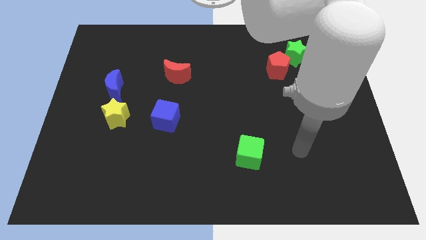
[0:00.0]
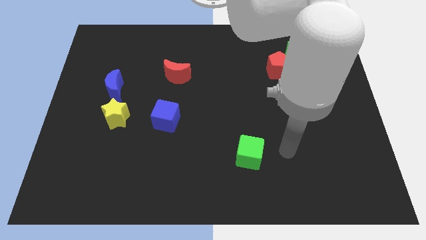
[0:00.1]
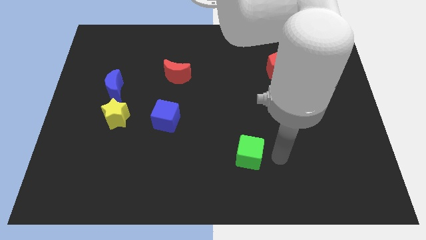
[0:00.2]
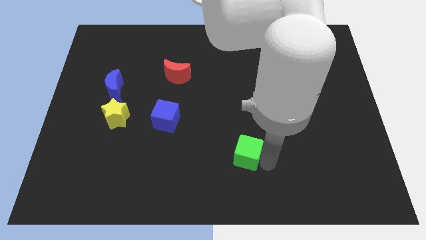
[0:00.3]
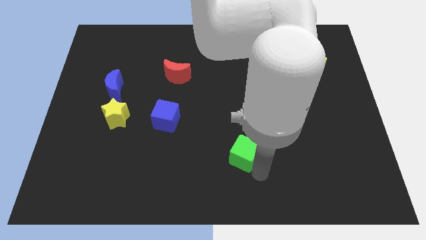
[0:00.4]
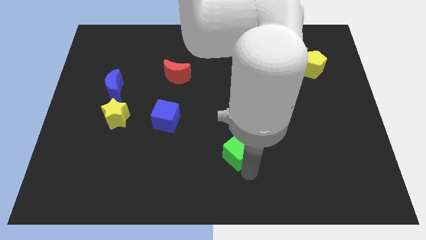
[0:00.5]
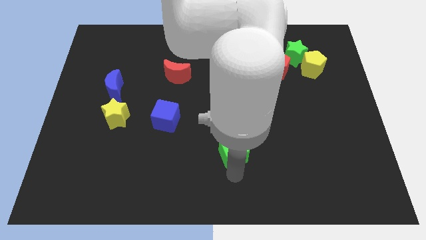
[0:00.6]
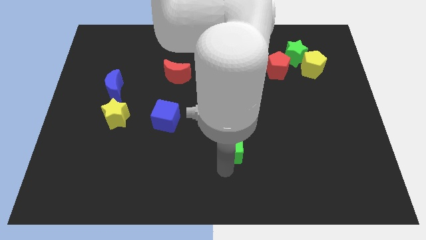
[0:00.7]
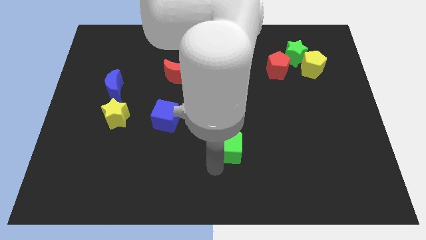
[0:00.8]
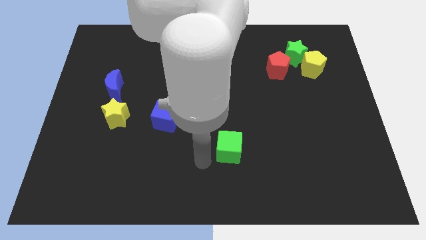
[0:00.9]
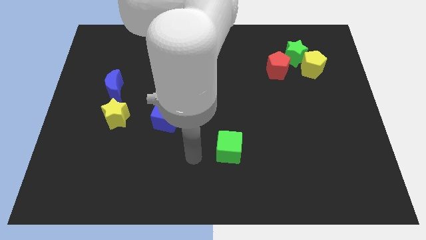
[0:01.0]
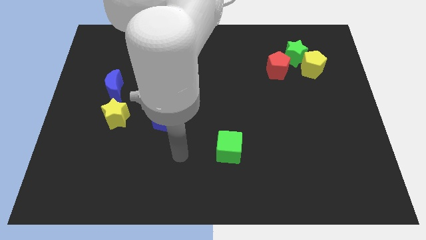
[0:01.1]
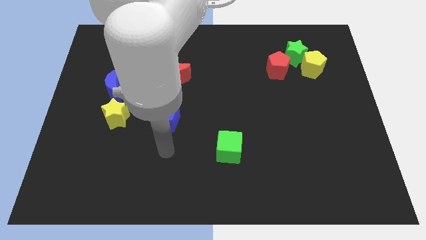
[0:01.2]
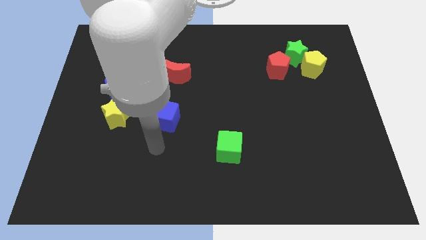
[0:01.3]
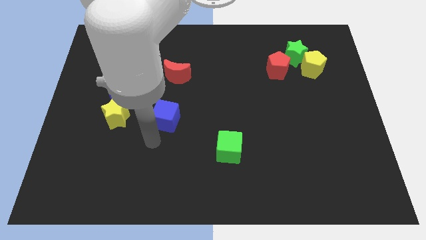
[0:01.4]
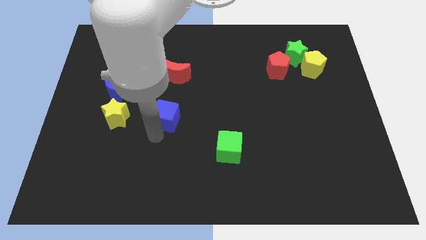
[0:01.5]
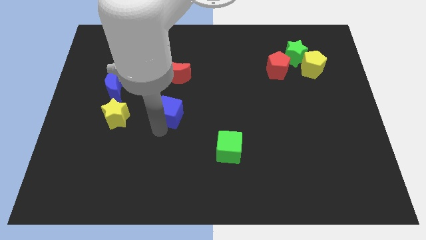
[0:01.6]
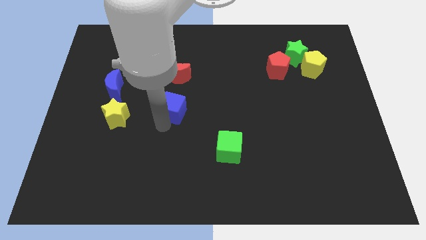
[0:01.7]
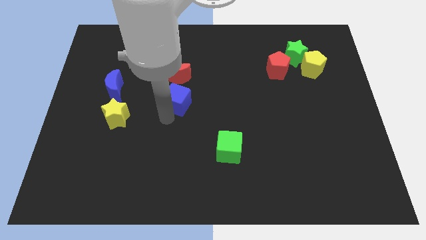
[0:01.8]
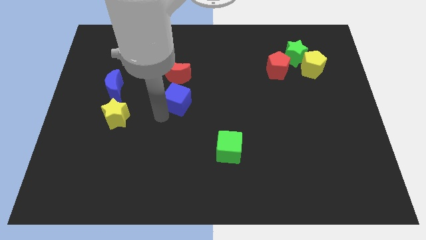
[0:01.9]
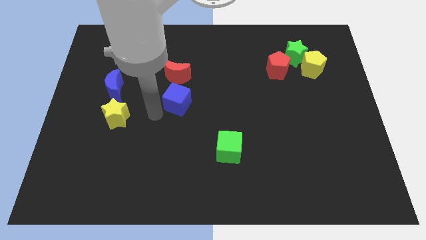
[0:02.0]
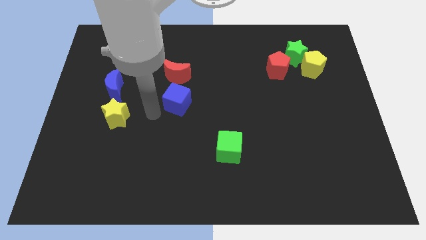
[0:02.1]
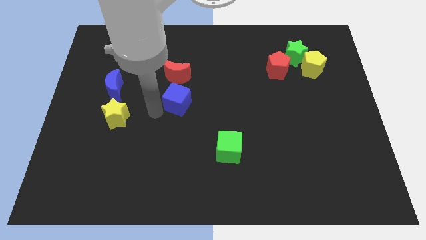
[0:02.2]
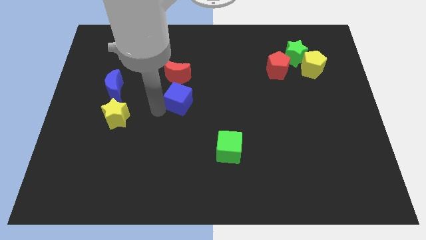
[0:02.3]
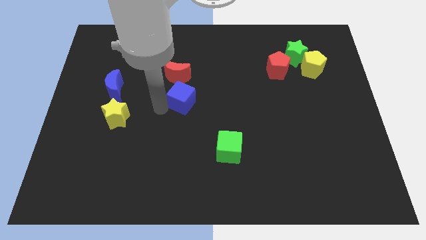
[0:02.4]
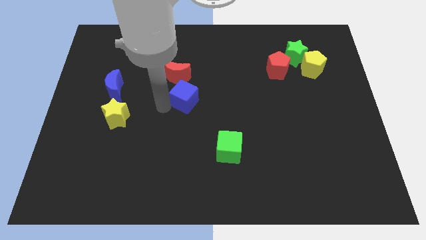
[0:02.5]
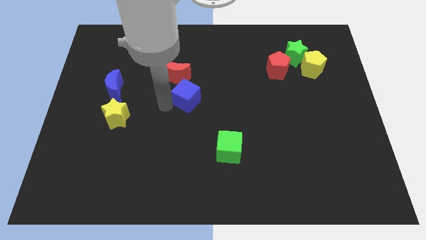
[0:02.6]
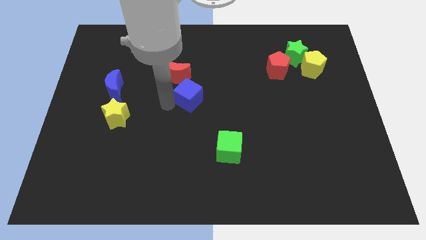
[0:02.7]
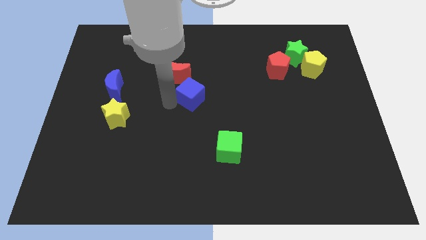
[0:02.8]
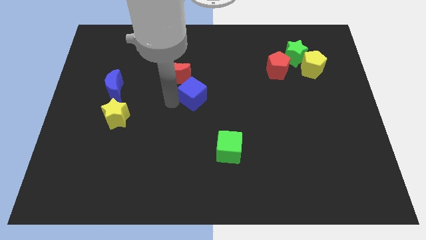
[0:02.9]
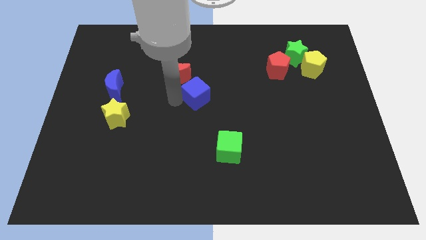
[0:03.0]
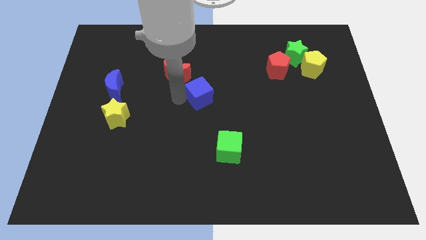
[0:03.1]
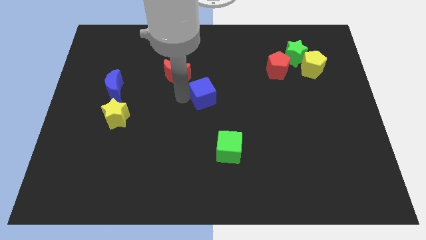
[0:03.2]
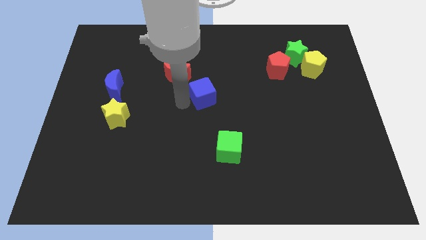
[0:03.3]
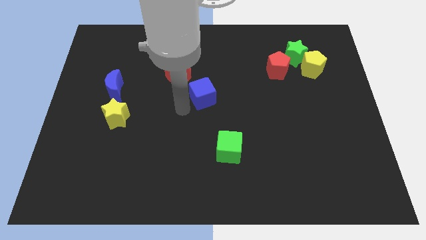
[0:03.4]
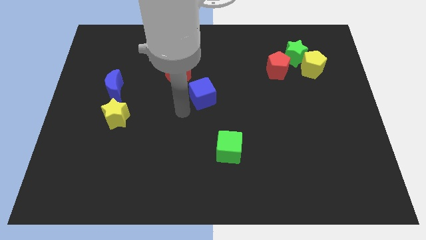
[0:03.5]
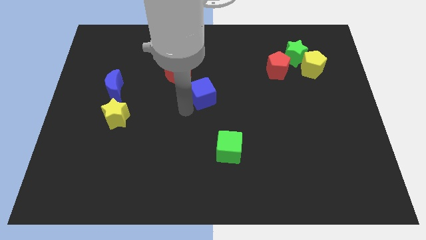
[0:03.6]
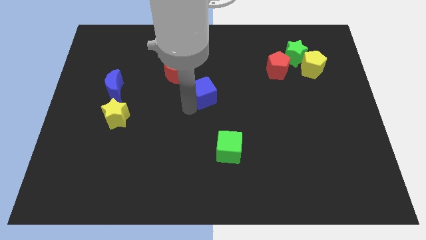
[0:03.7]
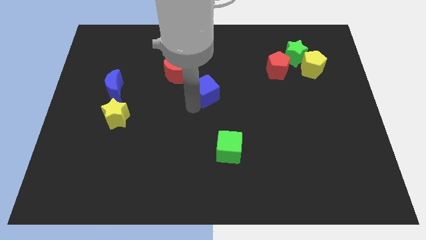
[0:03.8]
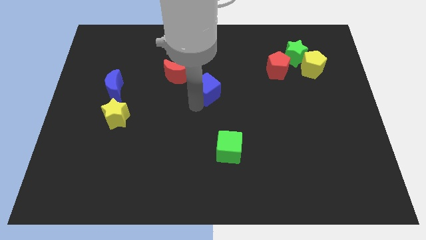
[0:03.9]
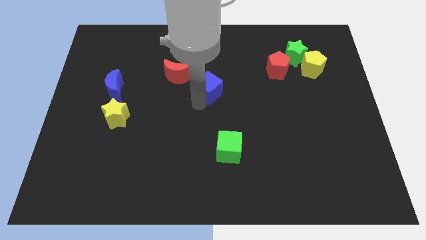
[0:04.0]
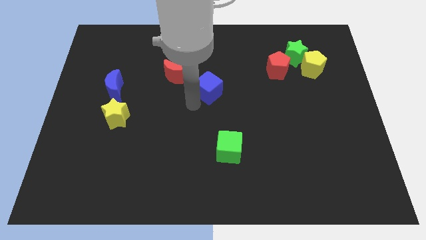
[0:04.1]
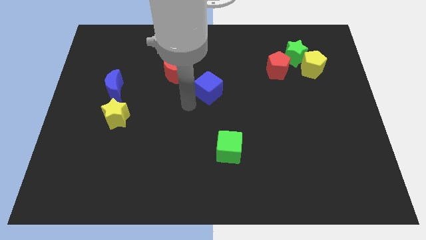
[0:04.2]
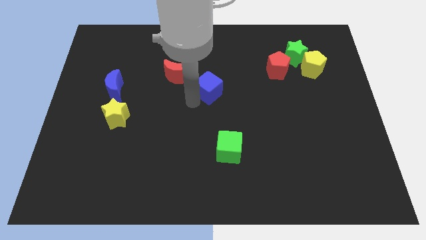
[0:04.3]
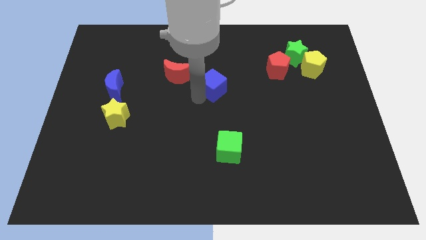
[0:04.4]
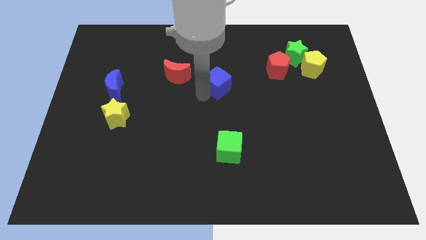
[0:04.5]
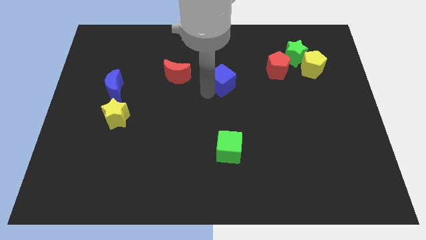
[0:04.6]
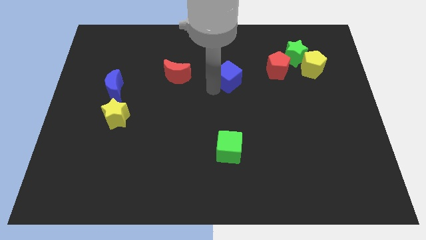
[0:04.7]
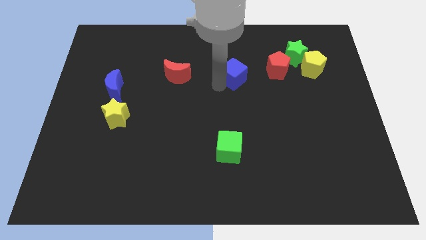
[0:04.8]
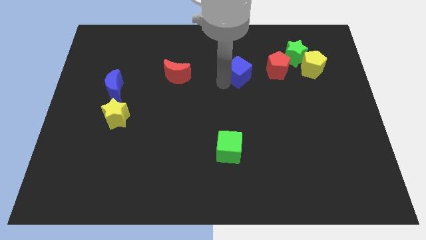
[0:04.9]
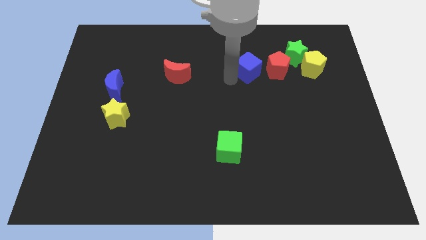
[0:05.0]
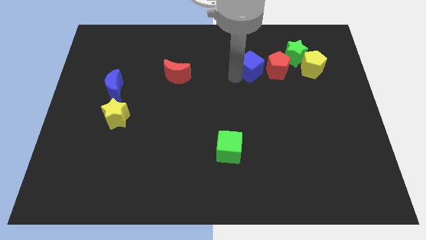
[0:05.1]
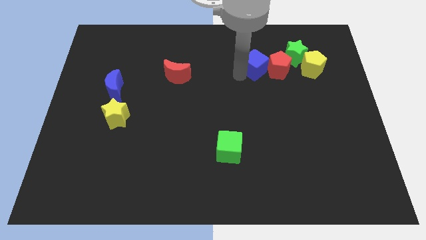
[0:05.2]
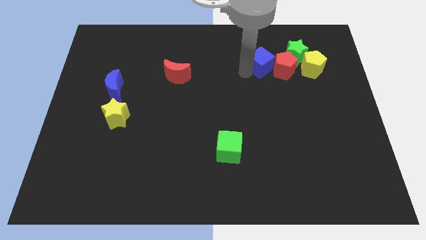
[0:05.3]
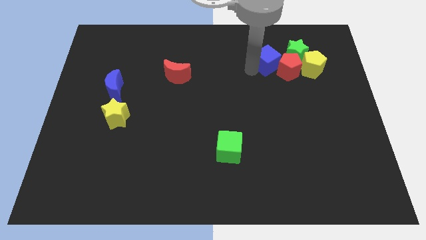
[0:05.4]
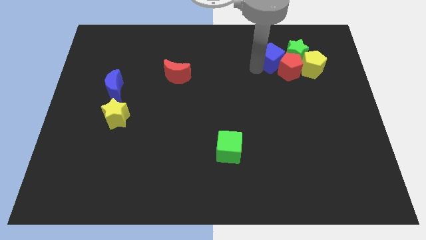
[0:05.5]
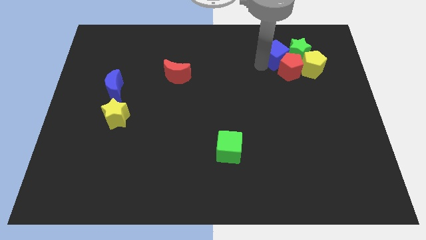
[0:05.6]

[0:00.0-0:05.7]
push the blue cube to the green star

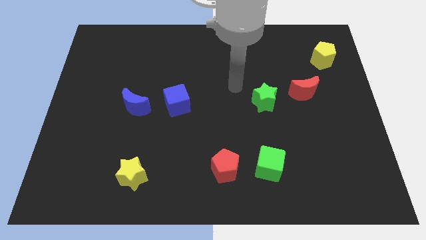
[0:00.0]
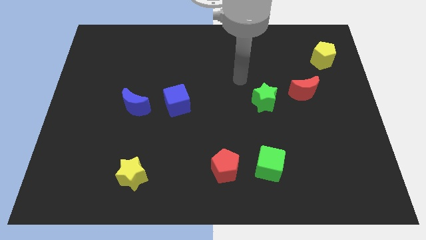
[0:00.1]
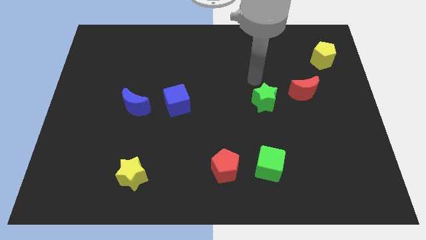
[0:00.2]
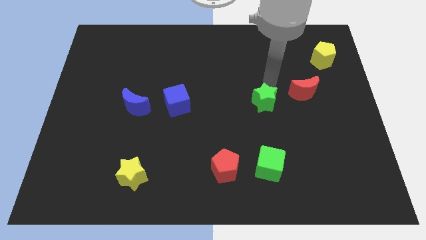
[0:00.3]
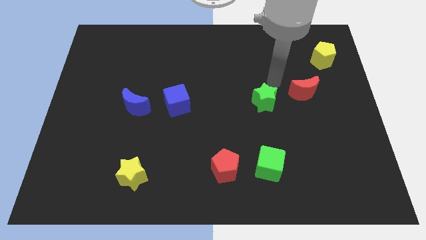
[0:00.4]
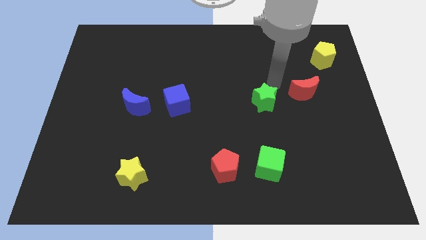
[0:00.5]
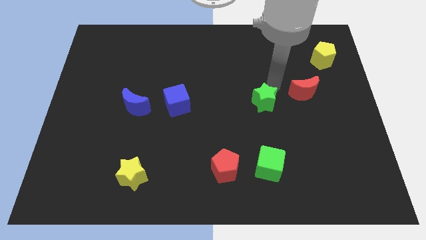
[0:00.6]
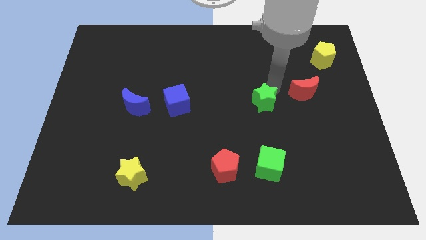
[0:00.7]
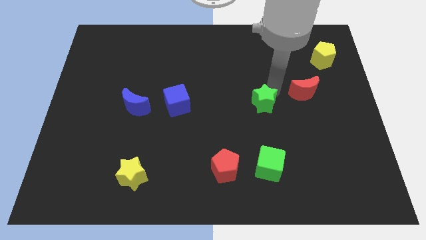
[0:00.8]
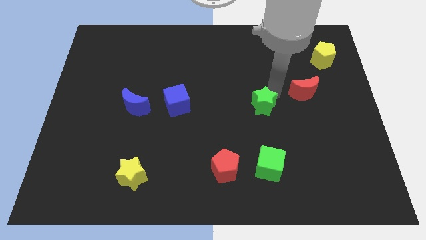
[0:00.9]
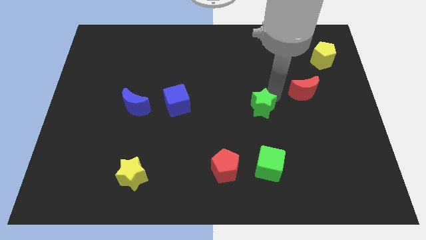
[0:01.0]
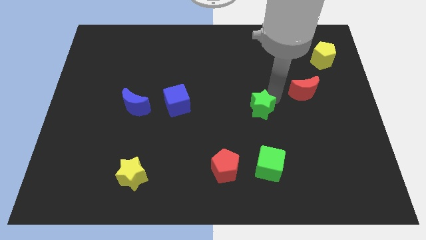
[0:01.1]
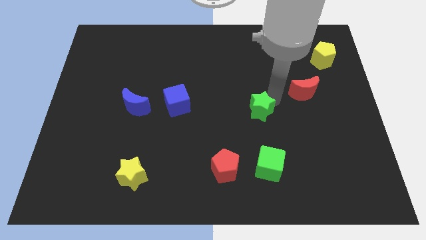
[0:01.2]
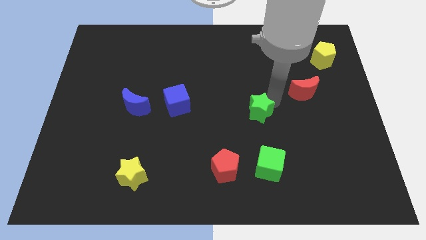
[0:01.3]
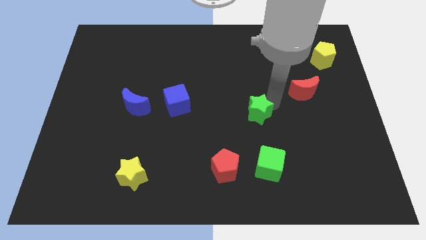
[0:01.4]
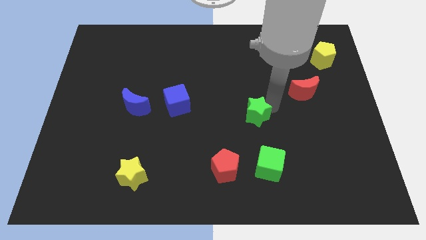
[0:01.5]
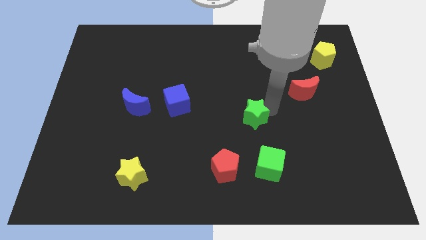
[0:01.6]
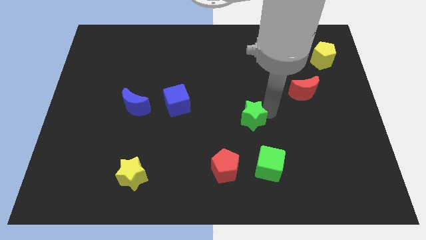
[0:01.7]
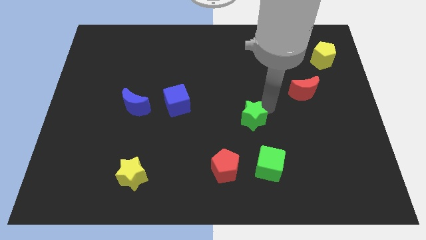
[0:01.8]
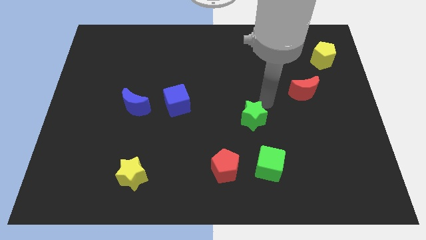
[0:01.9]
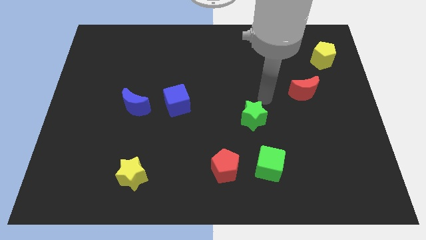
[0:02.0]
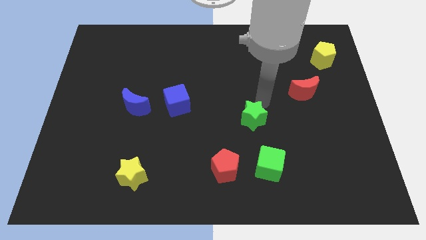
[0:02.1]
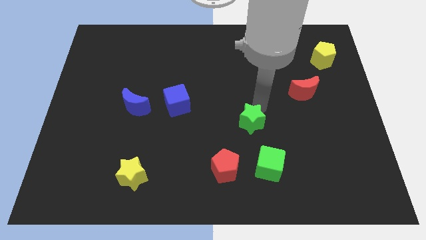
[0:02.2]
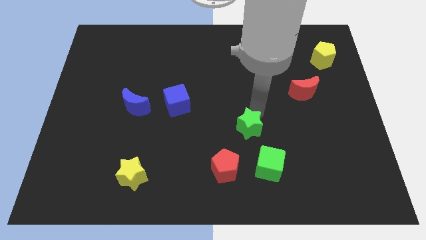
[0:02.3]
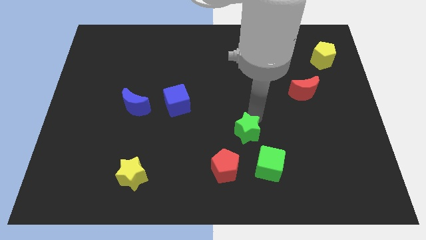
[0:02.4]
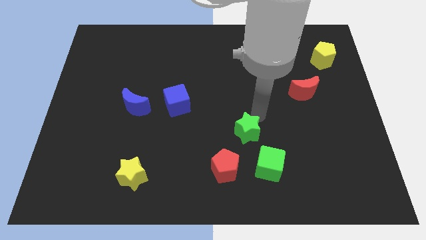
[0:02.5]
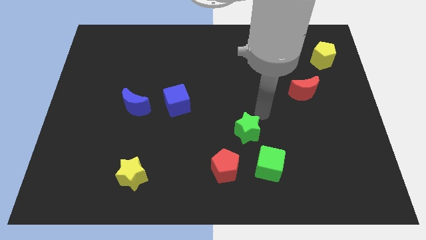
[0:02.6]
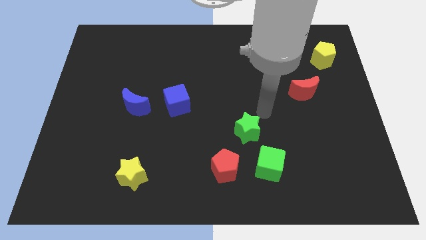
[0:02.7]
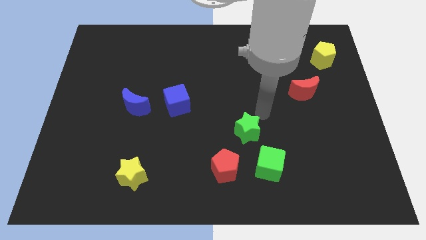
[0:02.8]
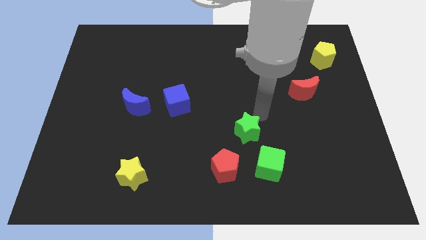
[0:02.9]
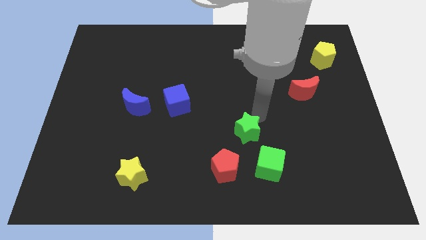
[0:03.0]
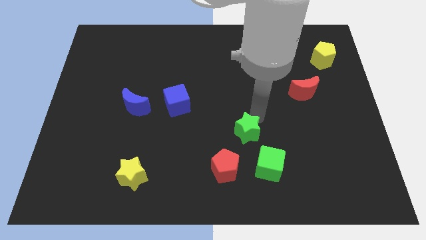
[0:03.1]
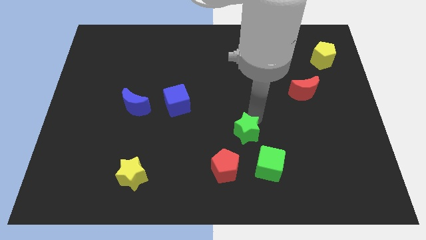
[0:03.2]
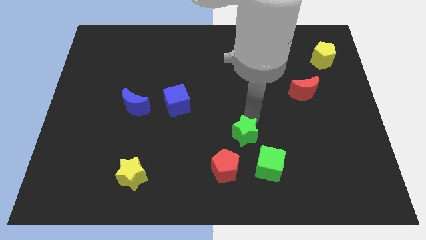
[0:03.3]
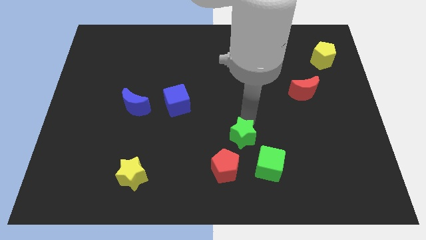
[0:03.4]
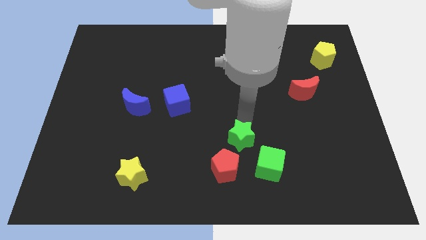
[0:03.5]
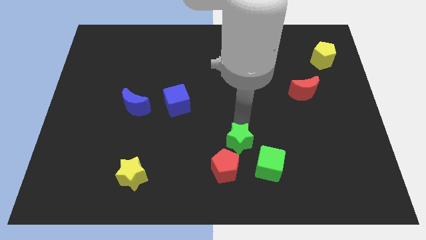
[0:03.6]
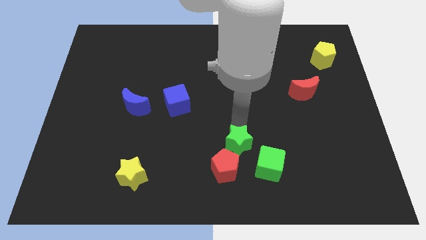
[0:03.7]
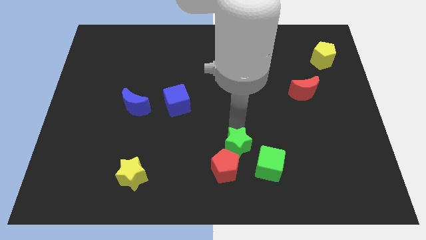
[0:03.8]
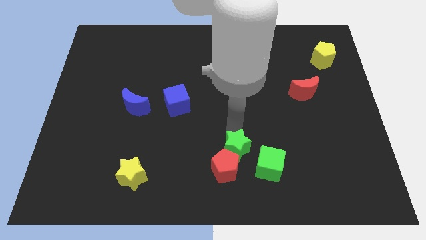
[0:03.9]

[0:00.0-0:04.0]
slide the green star towards the red pentagon
